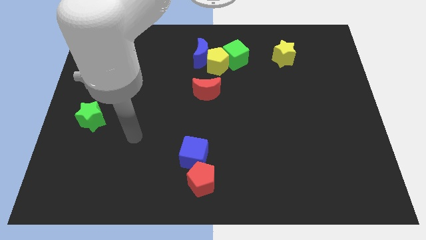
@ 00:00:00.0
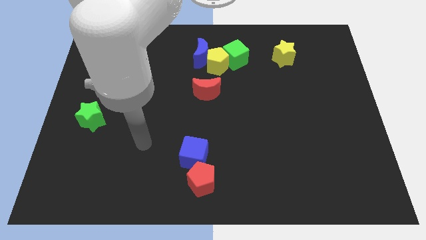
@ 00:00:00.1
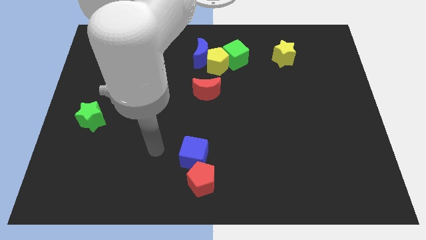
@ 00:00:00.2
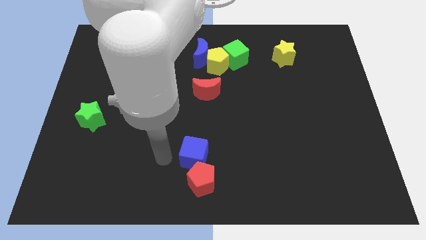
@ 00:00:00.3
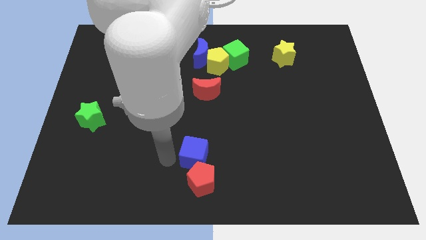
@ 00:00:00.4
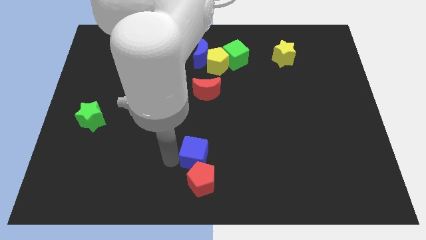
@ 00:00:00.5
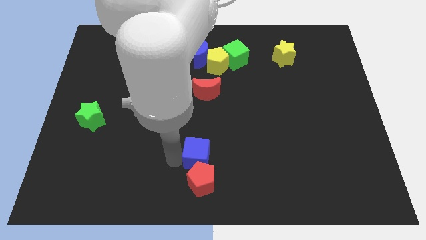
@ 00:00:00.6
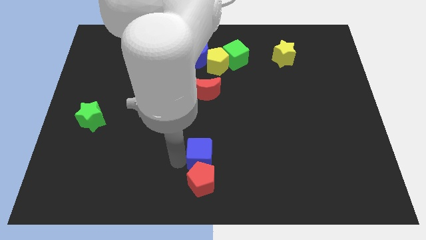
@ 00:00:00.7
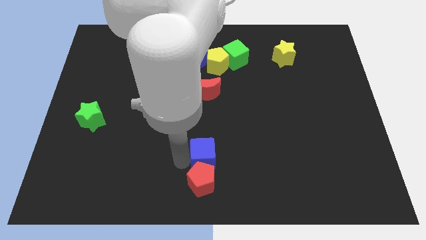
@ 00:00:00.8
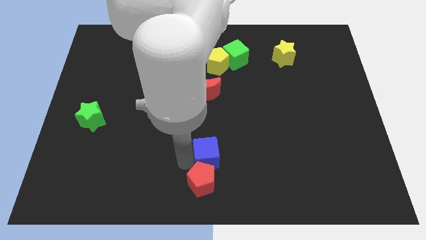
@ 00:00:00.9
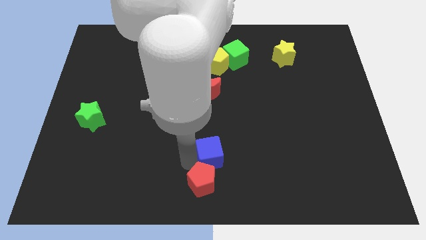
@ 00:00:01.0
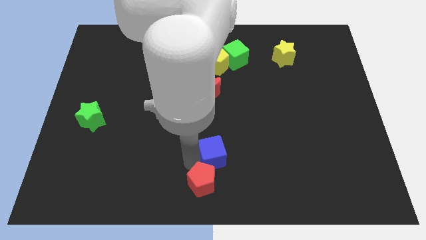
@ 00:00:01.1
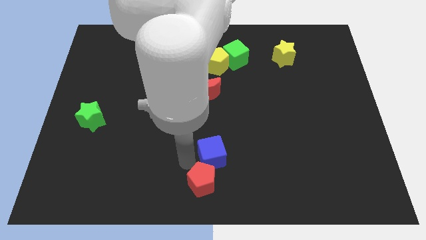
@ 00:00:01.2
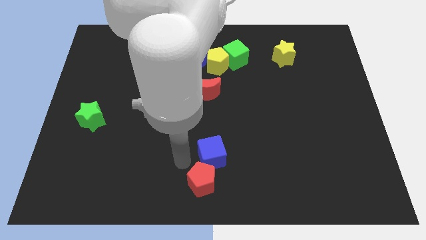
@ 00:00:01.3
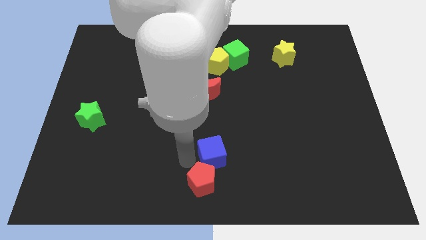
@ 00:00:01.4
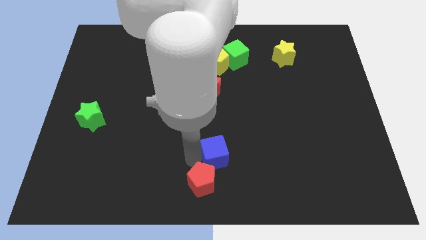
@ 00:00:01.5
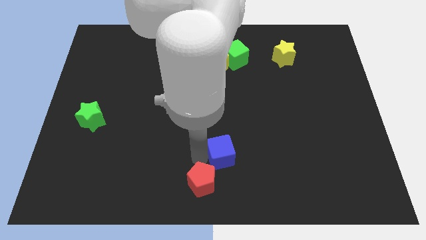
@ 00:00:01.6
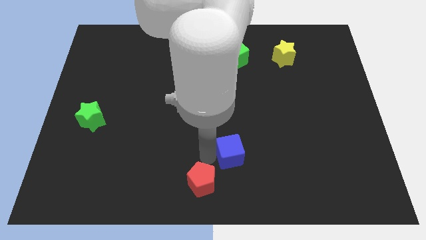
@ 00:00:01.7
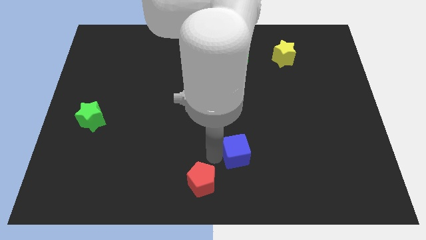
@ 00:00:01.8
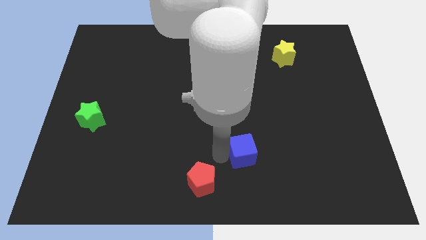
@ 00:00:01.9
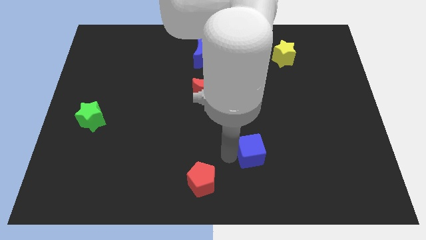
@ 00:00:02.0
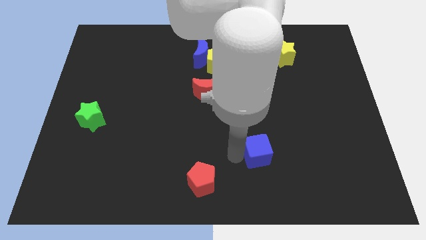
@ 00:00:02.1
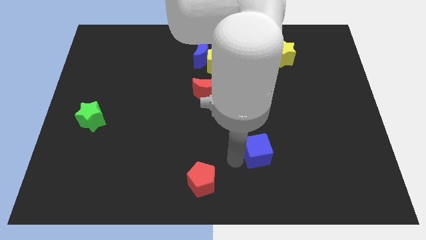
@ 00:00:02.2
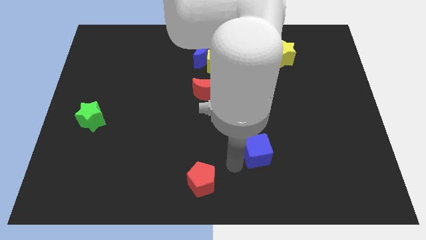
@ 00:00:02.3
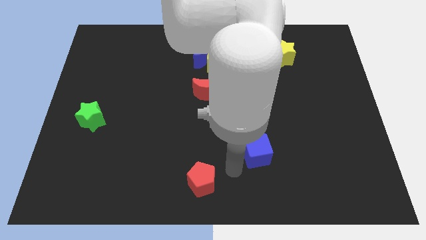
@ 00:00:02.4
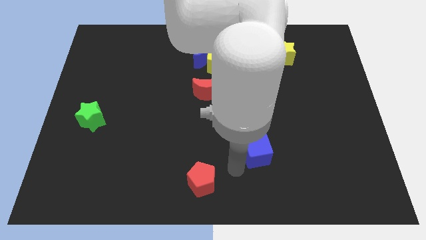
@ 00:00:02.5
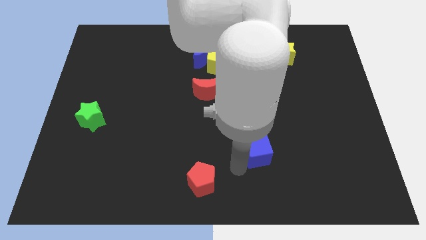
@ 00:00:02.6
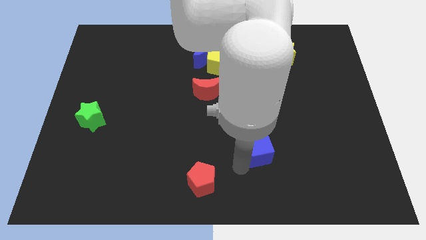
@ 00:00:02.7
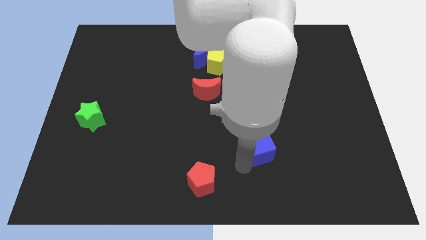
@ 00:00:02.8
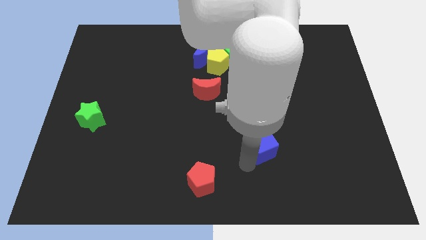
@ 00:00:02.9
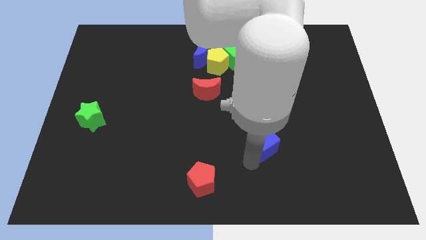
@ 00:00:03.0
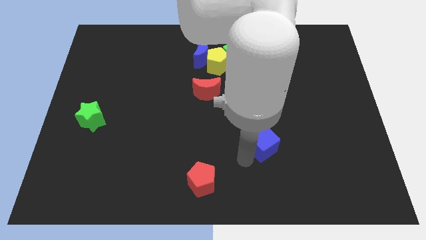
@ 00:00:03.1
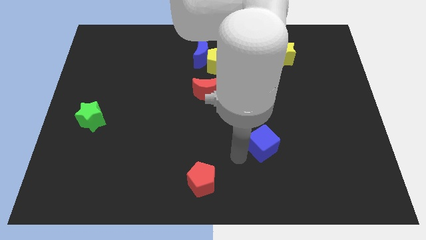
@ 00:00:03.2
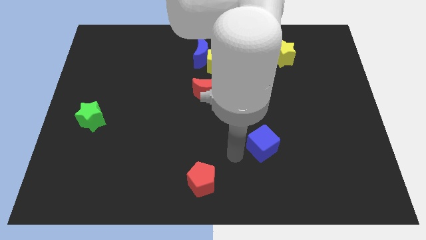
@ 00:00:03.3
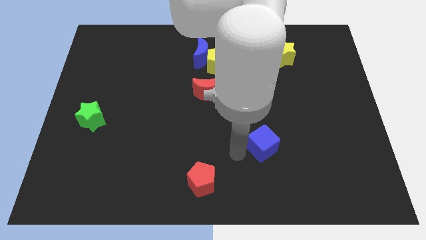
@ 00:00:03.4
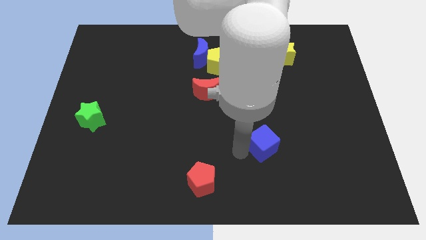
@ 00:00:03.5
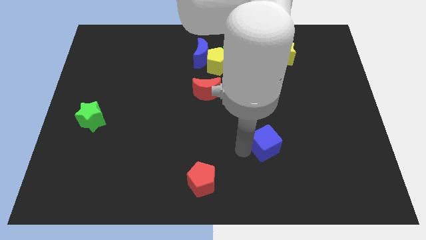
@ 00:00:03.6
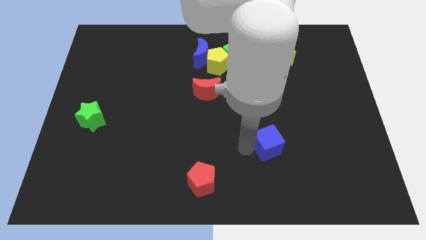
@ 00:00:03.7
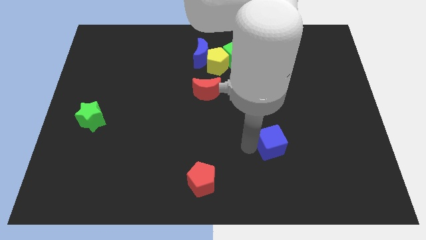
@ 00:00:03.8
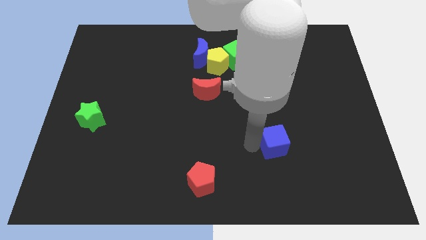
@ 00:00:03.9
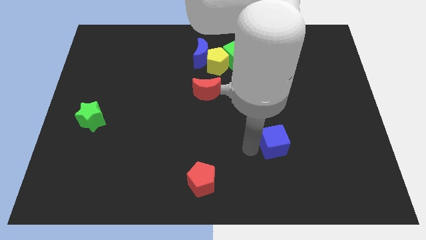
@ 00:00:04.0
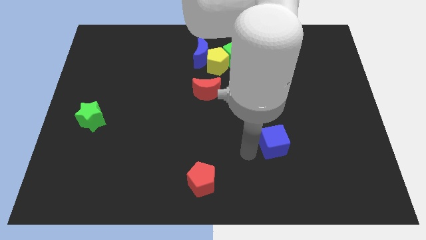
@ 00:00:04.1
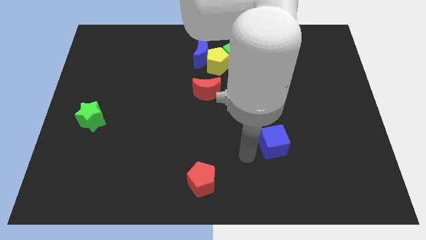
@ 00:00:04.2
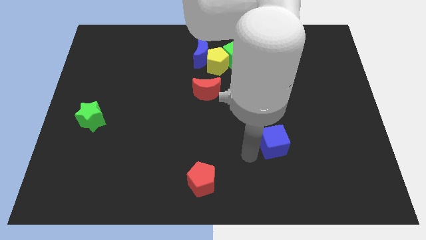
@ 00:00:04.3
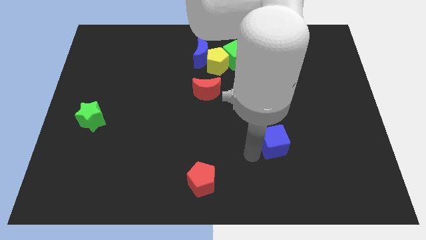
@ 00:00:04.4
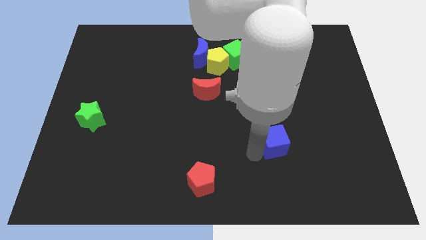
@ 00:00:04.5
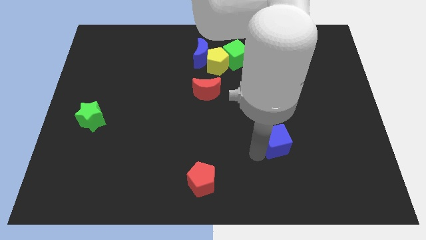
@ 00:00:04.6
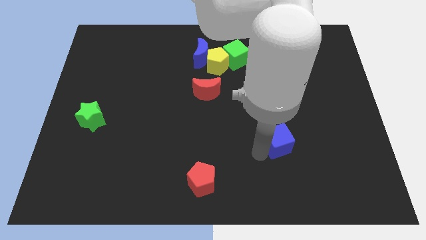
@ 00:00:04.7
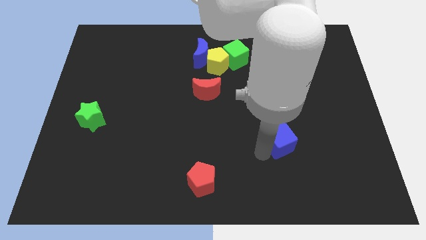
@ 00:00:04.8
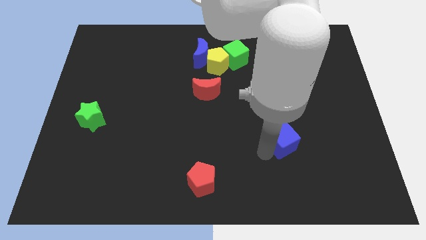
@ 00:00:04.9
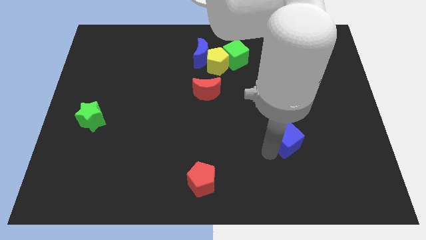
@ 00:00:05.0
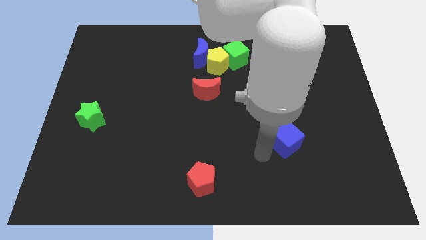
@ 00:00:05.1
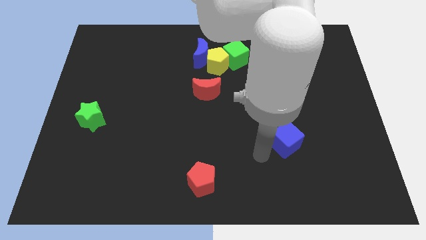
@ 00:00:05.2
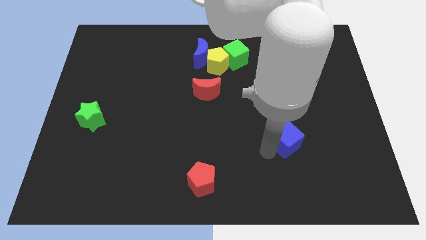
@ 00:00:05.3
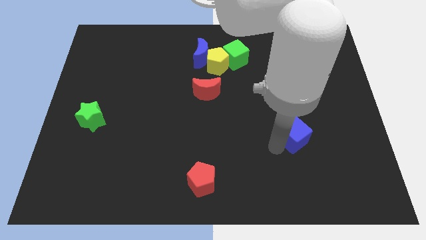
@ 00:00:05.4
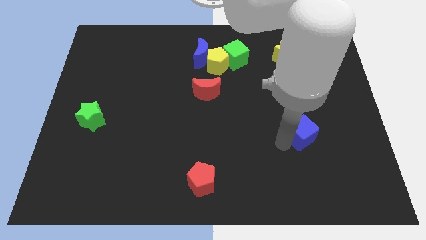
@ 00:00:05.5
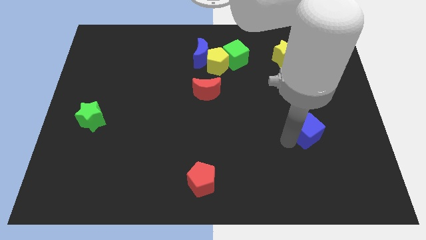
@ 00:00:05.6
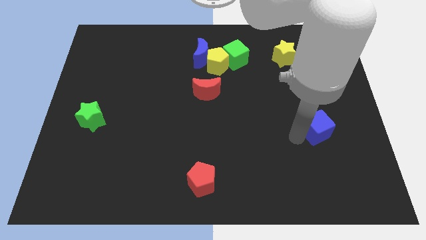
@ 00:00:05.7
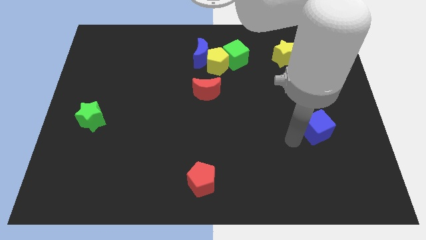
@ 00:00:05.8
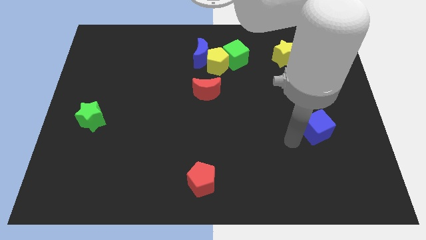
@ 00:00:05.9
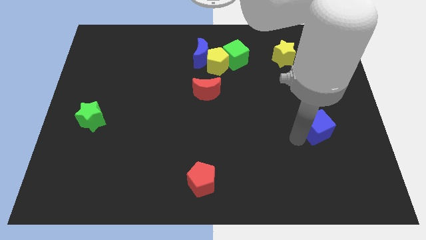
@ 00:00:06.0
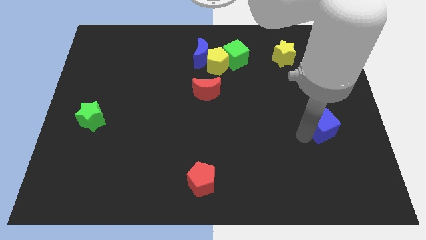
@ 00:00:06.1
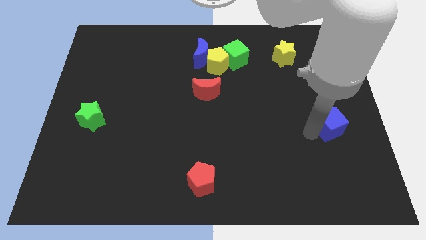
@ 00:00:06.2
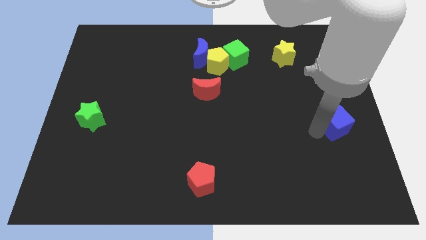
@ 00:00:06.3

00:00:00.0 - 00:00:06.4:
push the blue cube to the right side of the board

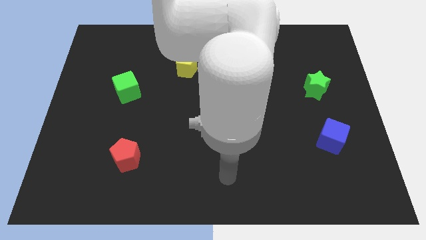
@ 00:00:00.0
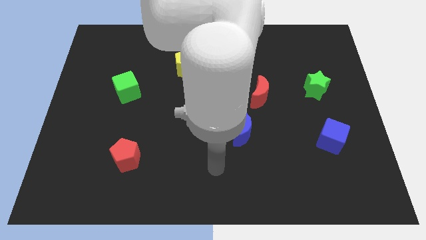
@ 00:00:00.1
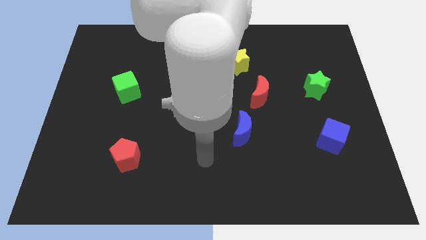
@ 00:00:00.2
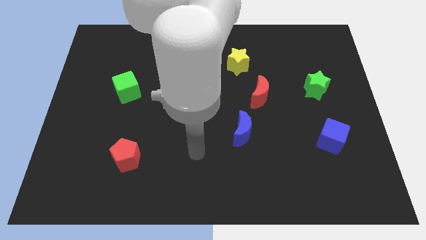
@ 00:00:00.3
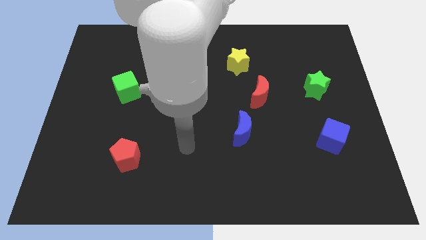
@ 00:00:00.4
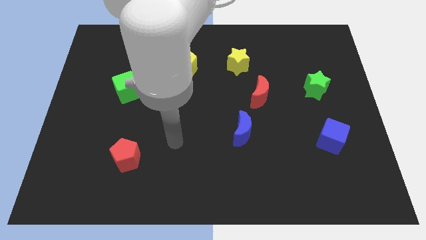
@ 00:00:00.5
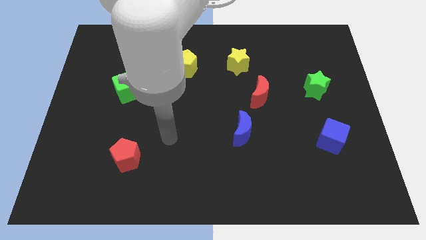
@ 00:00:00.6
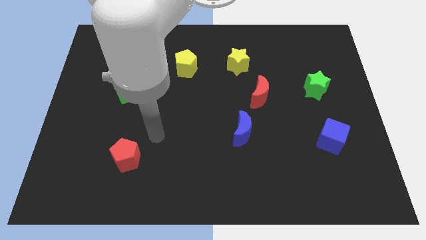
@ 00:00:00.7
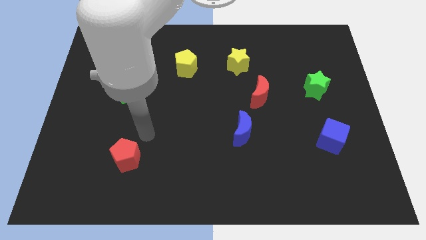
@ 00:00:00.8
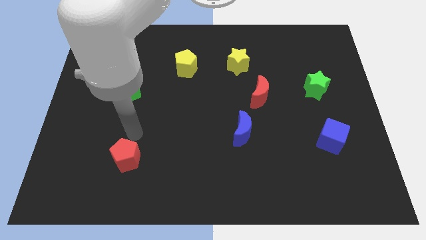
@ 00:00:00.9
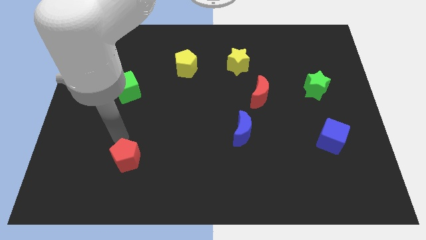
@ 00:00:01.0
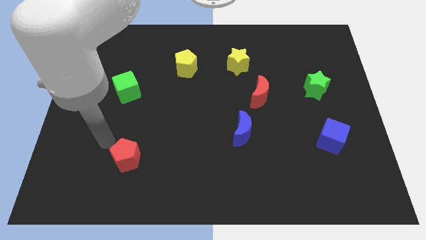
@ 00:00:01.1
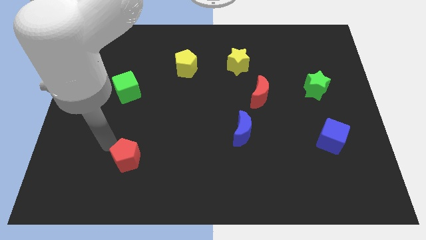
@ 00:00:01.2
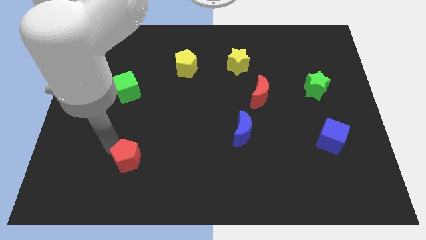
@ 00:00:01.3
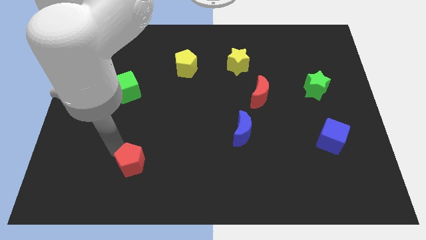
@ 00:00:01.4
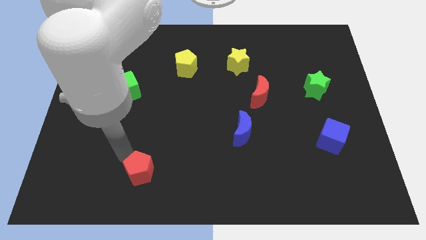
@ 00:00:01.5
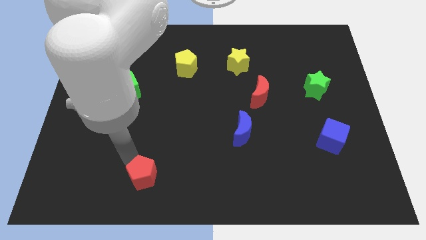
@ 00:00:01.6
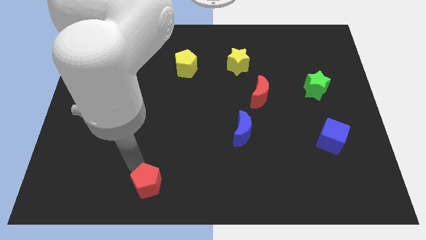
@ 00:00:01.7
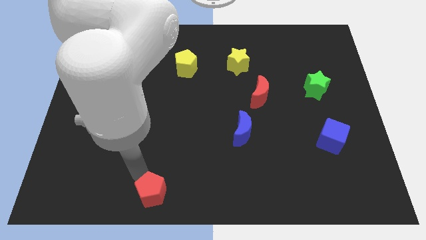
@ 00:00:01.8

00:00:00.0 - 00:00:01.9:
put the red pentagon to the bottom
